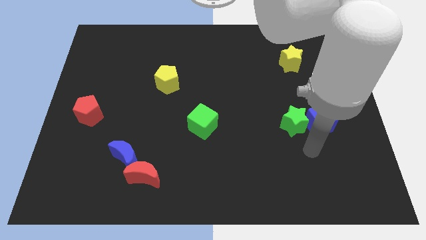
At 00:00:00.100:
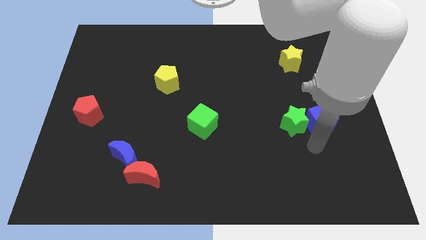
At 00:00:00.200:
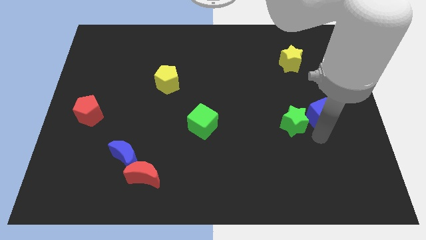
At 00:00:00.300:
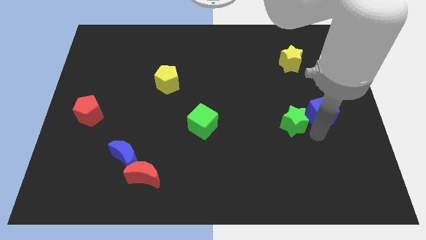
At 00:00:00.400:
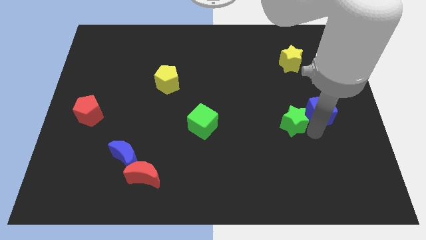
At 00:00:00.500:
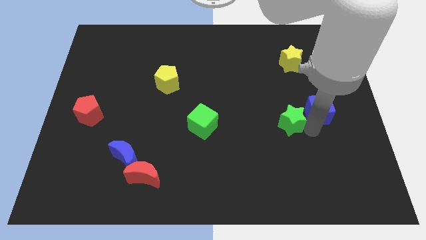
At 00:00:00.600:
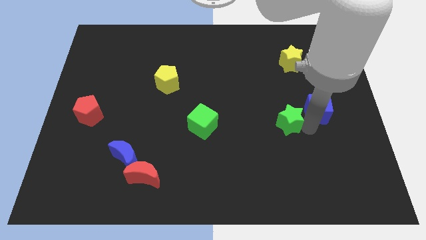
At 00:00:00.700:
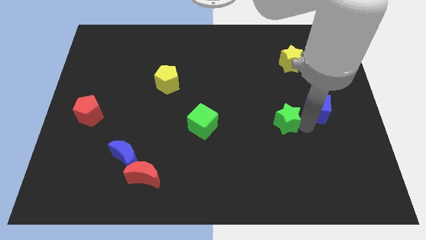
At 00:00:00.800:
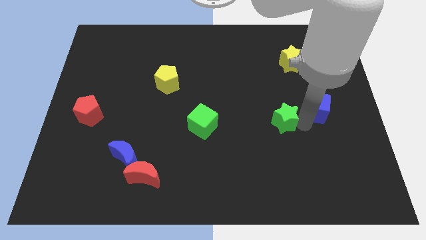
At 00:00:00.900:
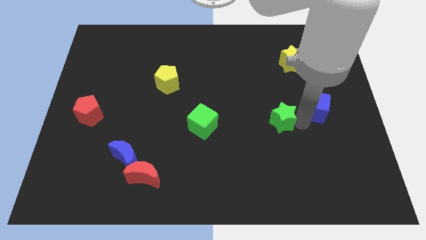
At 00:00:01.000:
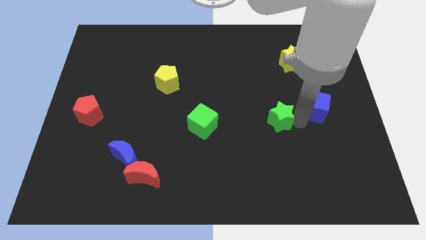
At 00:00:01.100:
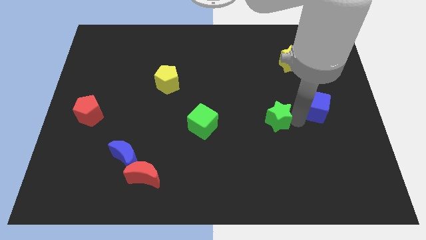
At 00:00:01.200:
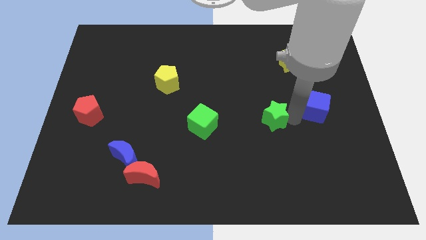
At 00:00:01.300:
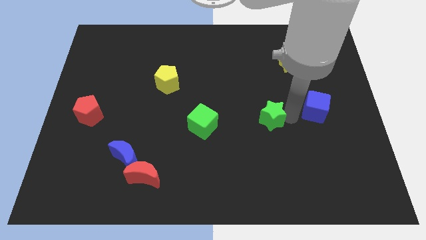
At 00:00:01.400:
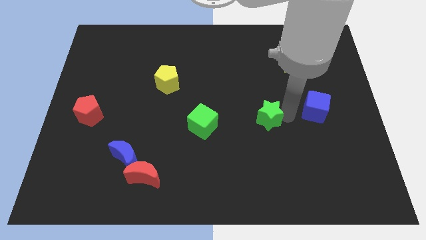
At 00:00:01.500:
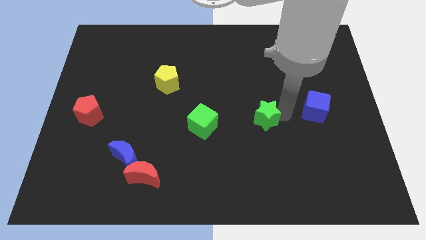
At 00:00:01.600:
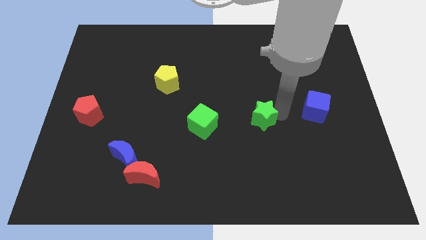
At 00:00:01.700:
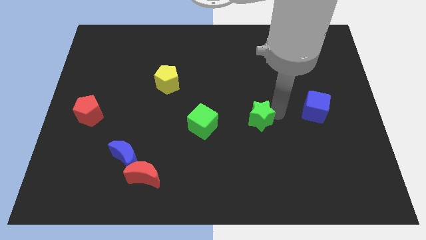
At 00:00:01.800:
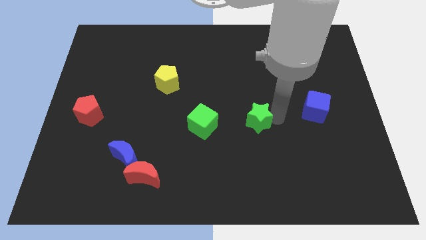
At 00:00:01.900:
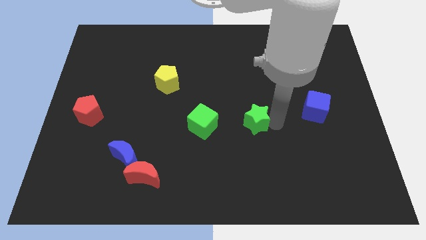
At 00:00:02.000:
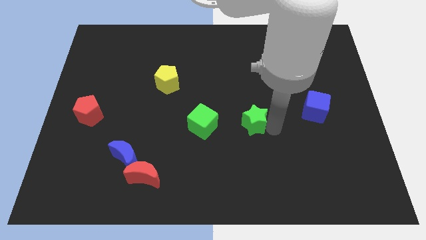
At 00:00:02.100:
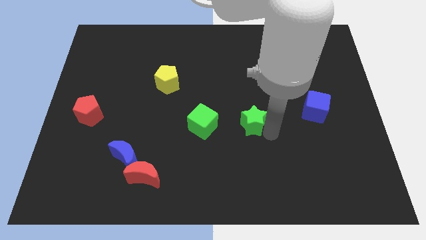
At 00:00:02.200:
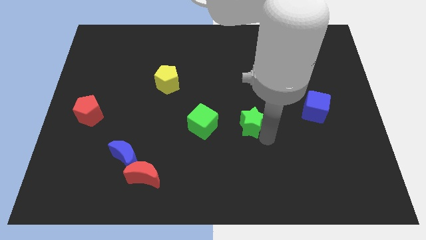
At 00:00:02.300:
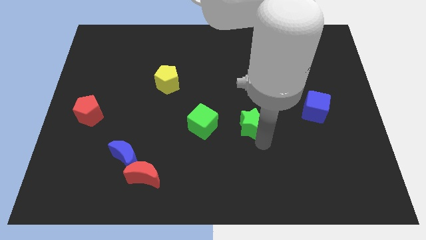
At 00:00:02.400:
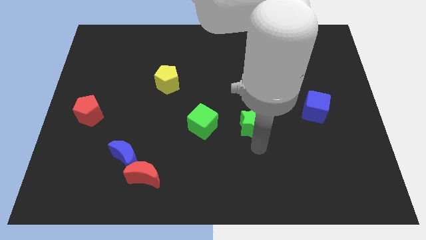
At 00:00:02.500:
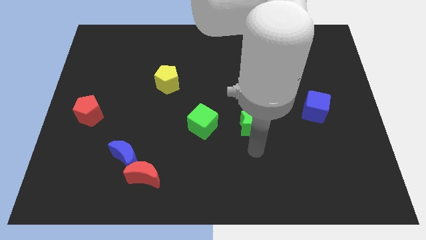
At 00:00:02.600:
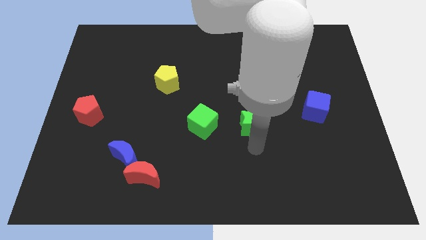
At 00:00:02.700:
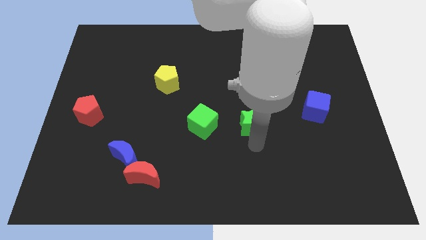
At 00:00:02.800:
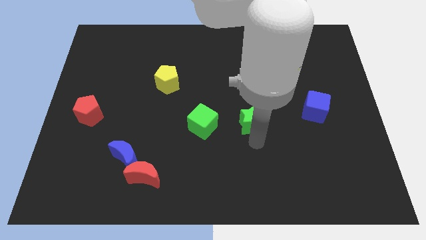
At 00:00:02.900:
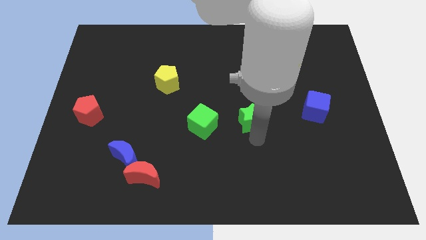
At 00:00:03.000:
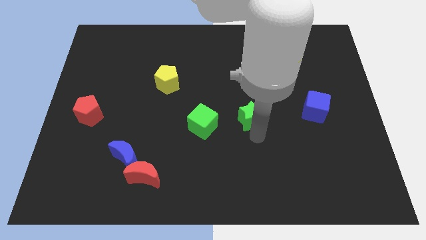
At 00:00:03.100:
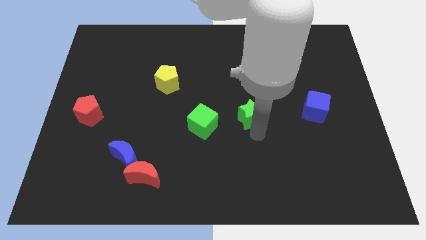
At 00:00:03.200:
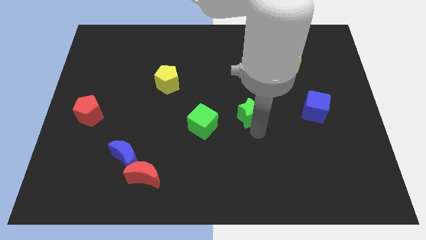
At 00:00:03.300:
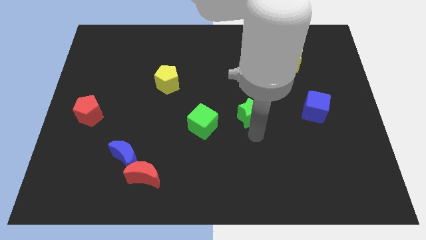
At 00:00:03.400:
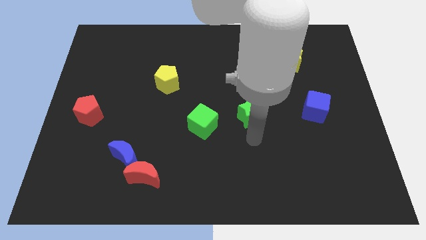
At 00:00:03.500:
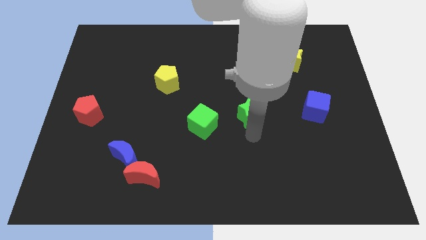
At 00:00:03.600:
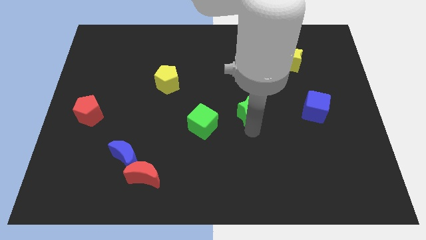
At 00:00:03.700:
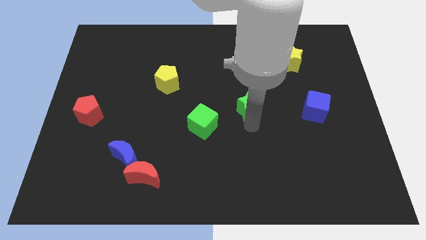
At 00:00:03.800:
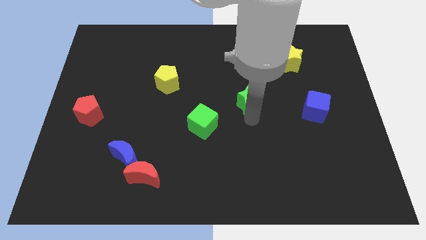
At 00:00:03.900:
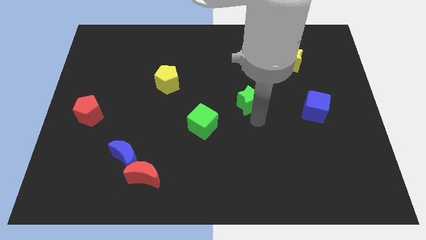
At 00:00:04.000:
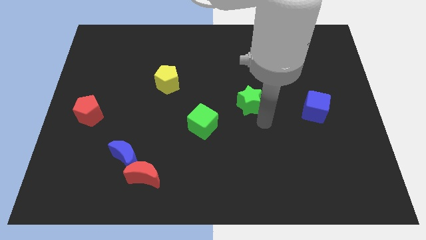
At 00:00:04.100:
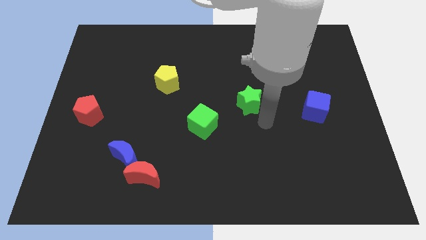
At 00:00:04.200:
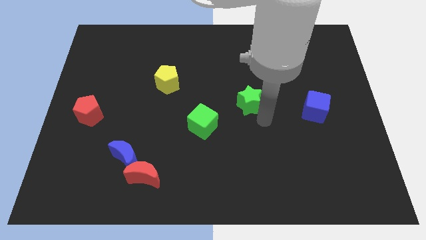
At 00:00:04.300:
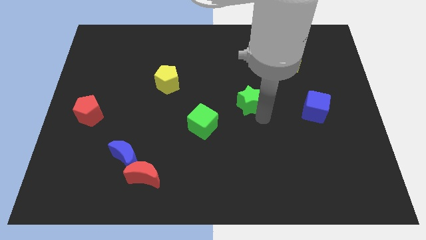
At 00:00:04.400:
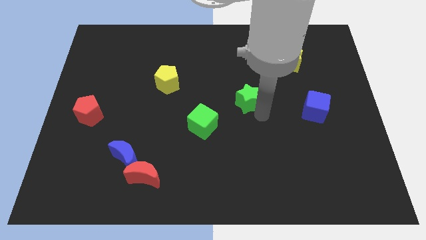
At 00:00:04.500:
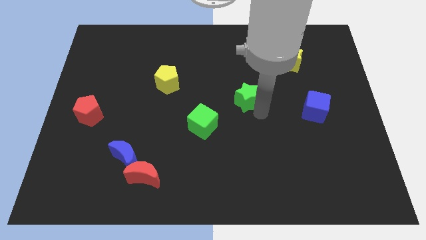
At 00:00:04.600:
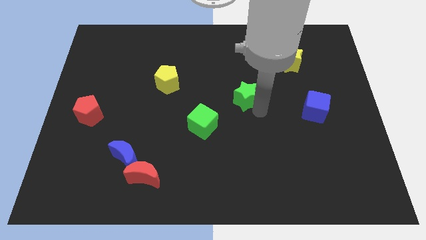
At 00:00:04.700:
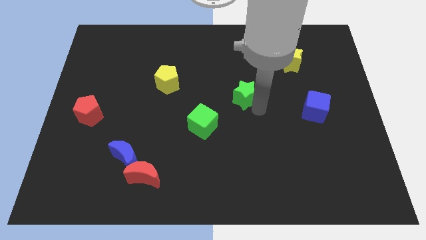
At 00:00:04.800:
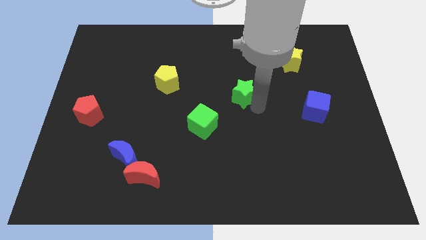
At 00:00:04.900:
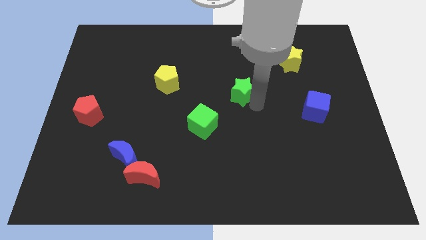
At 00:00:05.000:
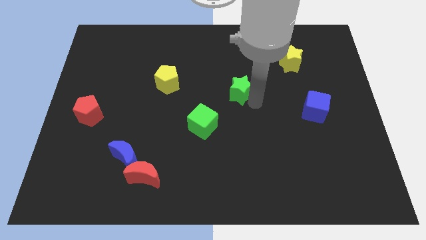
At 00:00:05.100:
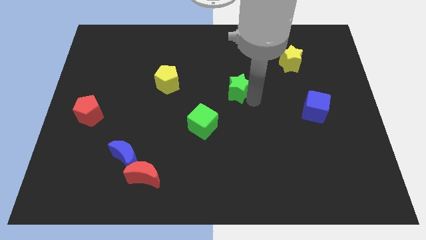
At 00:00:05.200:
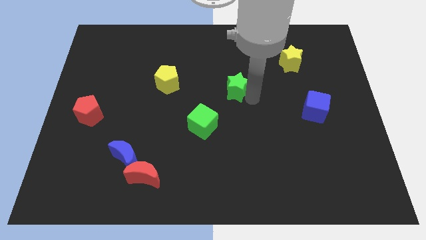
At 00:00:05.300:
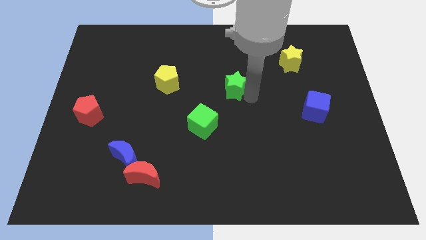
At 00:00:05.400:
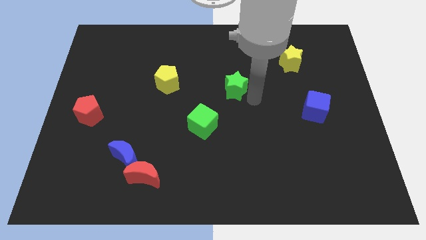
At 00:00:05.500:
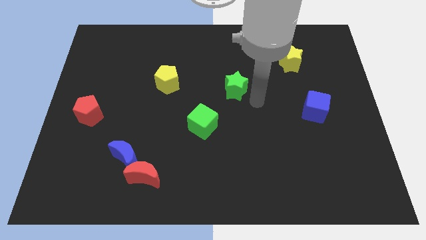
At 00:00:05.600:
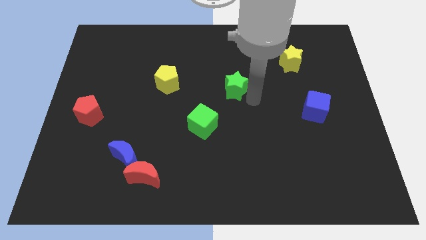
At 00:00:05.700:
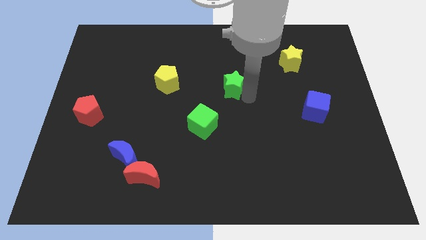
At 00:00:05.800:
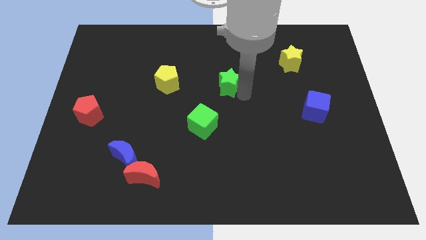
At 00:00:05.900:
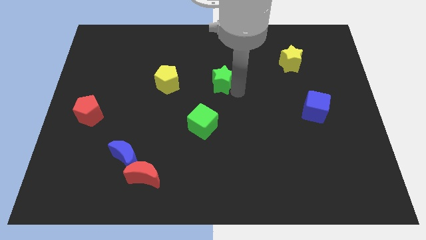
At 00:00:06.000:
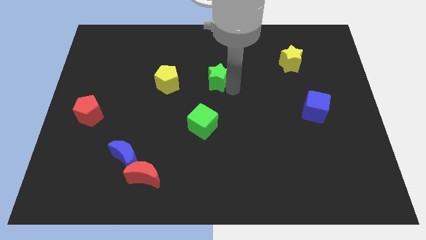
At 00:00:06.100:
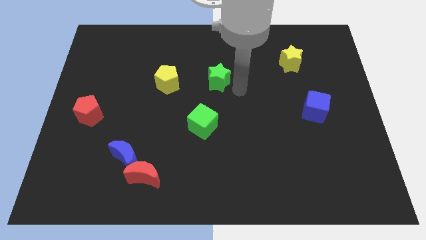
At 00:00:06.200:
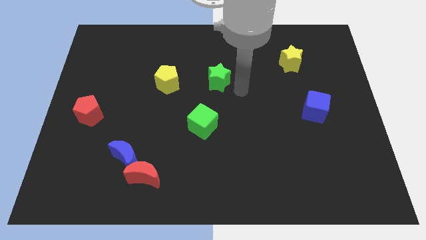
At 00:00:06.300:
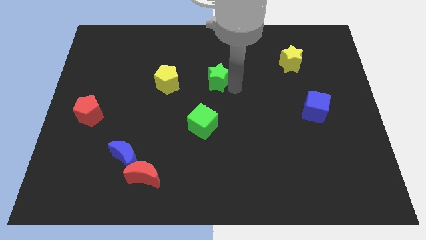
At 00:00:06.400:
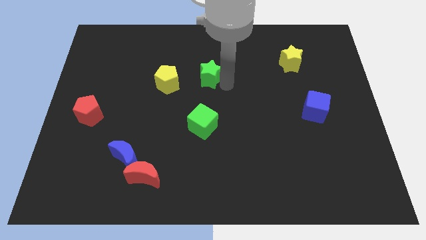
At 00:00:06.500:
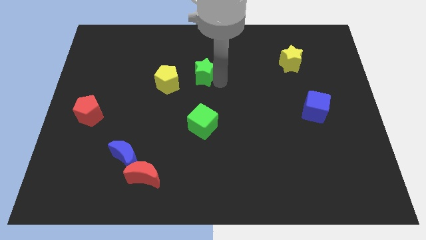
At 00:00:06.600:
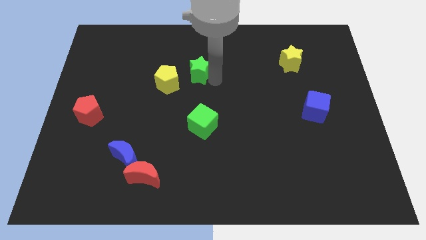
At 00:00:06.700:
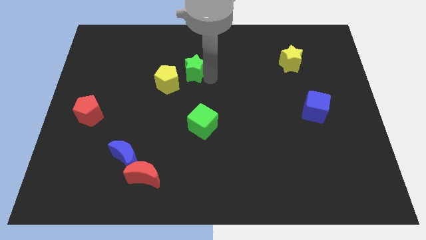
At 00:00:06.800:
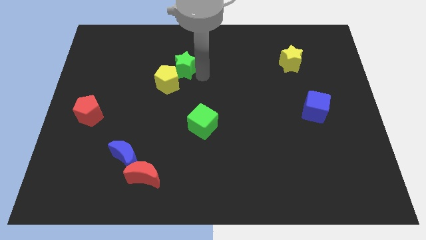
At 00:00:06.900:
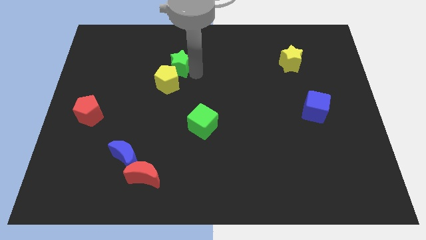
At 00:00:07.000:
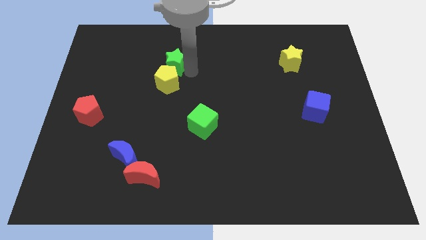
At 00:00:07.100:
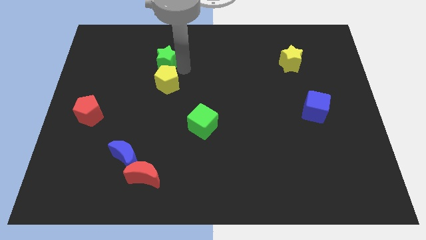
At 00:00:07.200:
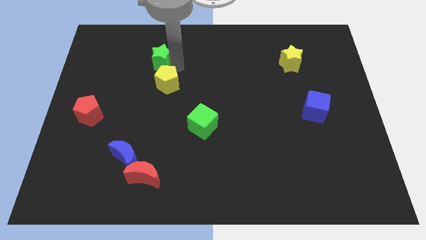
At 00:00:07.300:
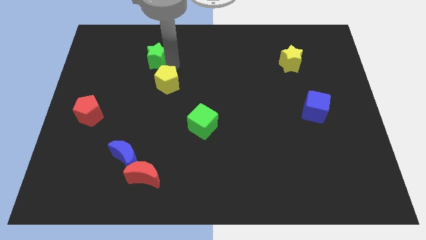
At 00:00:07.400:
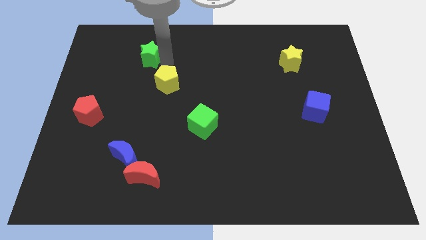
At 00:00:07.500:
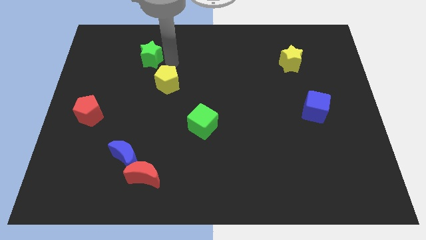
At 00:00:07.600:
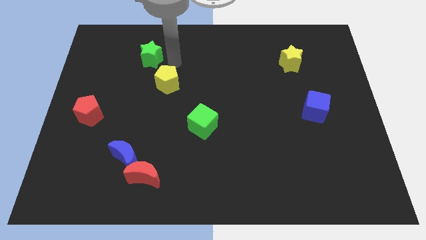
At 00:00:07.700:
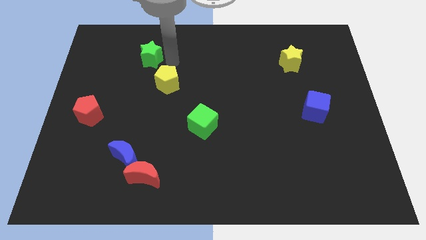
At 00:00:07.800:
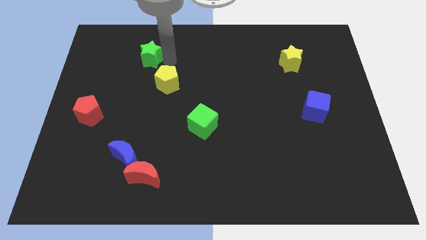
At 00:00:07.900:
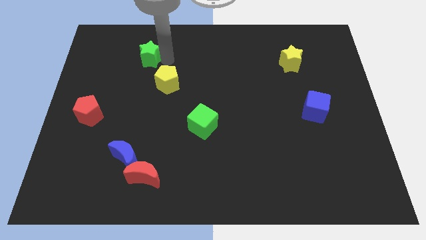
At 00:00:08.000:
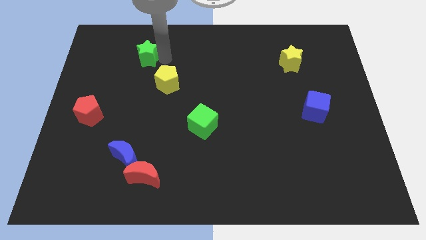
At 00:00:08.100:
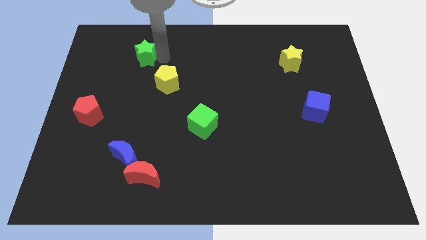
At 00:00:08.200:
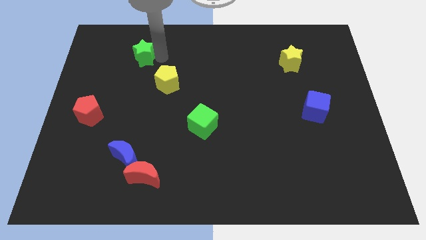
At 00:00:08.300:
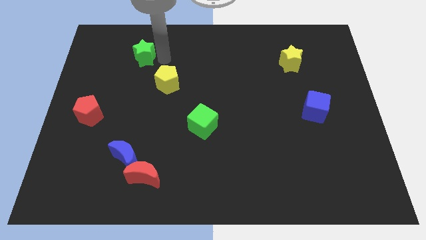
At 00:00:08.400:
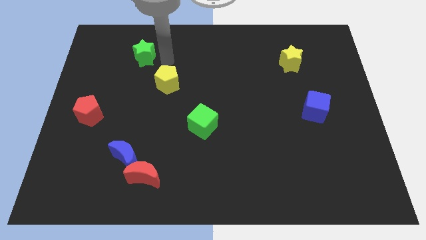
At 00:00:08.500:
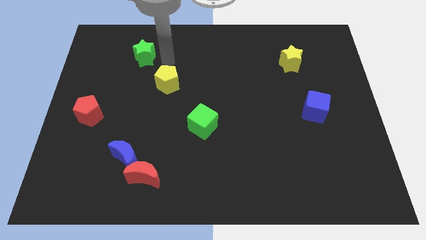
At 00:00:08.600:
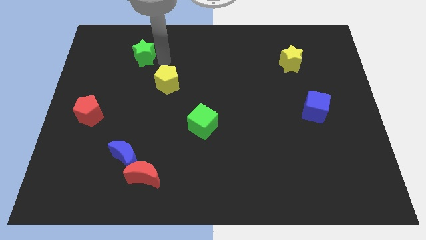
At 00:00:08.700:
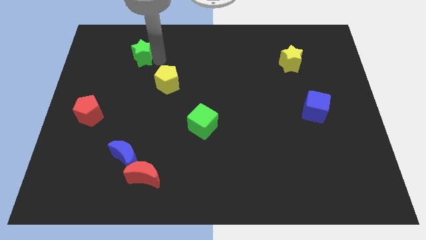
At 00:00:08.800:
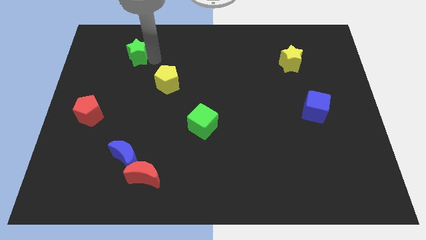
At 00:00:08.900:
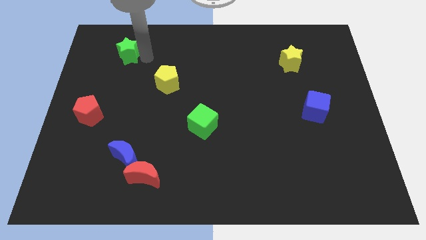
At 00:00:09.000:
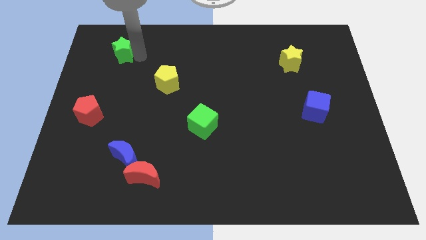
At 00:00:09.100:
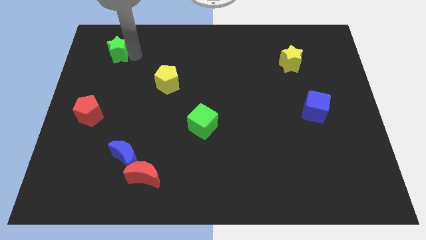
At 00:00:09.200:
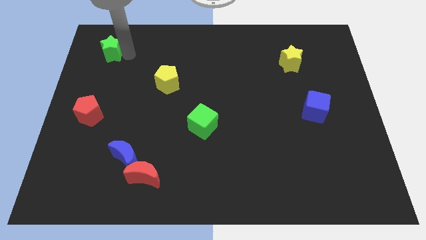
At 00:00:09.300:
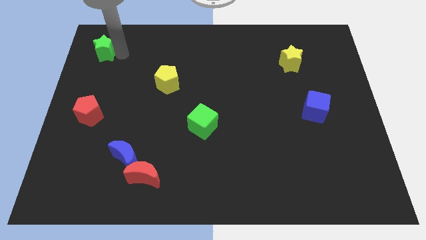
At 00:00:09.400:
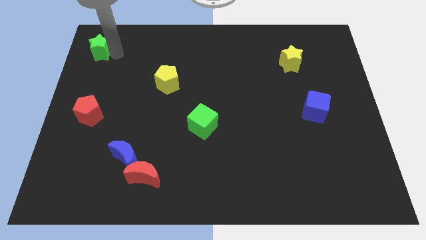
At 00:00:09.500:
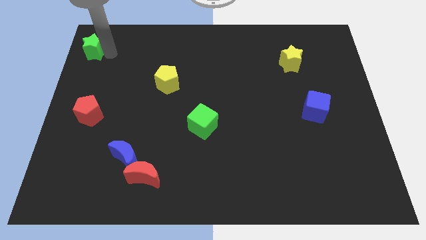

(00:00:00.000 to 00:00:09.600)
move the green star to the top left corner
